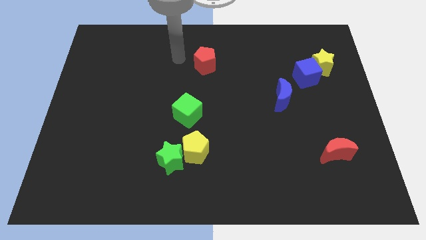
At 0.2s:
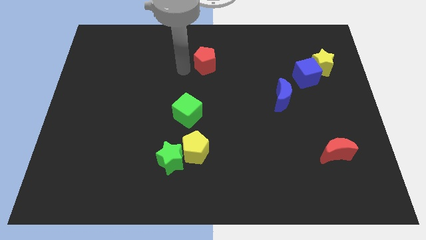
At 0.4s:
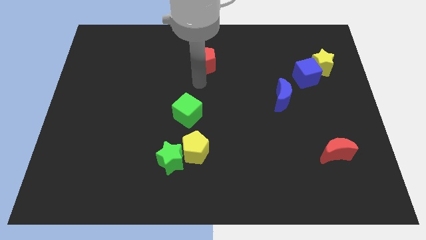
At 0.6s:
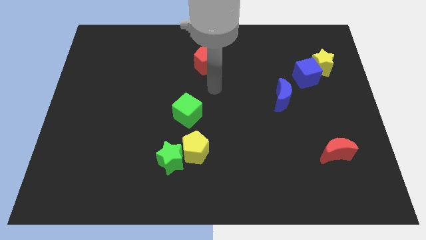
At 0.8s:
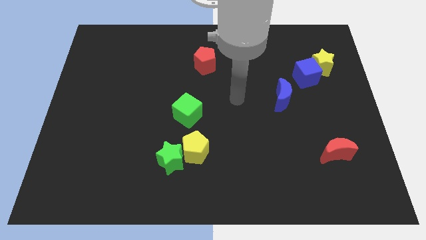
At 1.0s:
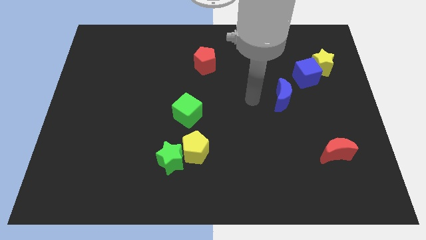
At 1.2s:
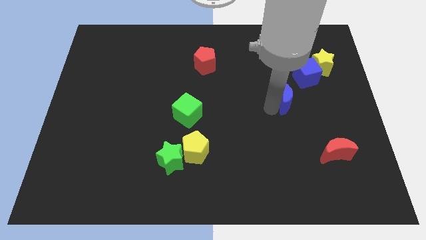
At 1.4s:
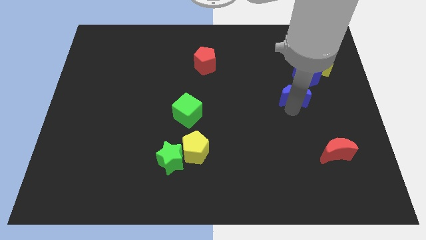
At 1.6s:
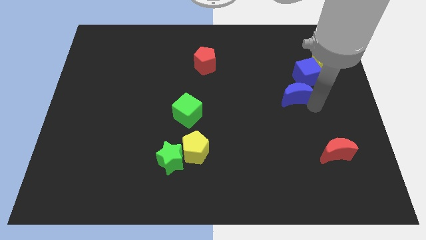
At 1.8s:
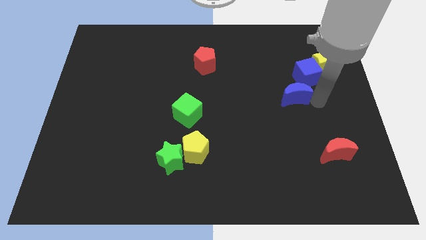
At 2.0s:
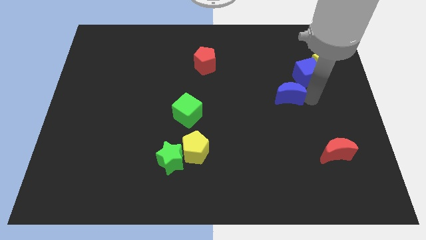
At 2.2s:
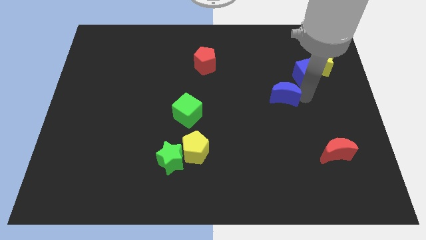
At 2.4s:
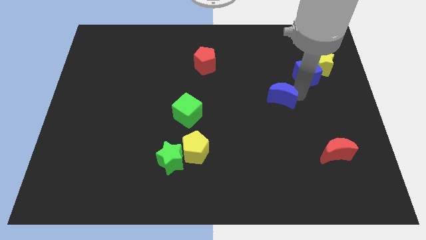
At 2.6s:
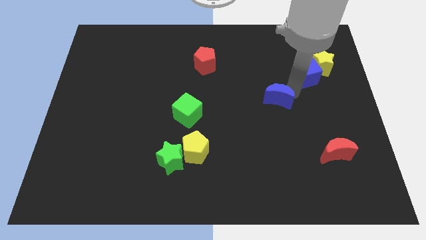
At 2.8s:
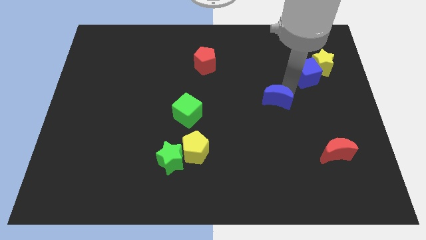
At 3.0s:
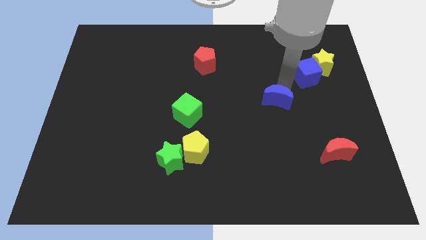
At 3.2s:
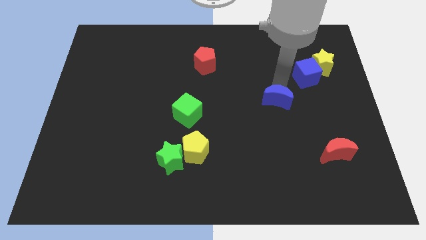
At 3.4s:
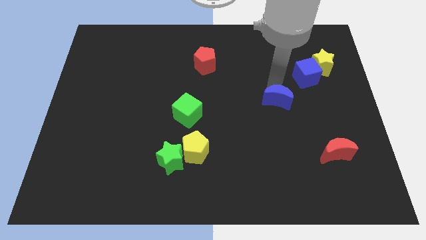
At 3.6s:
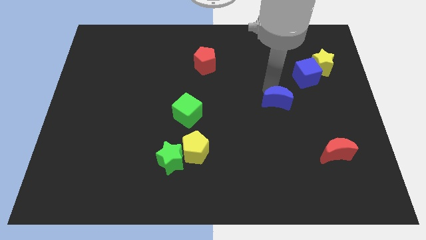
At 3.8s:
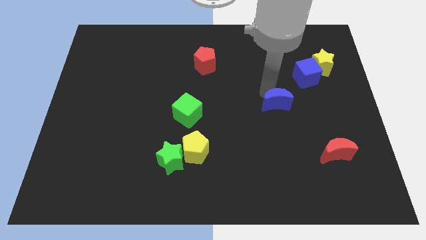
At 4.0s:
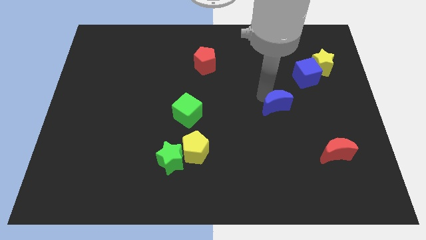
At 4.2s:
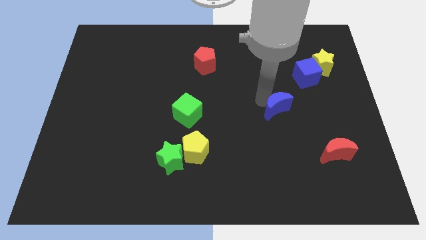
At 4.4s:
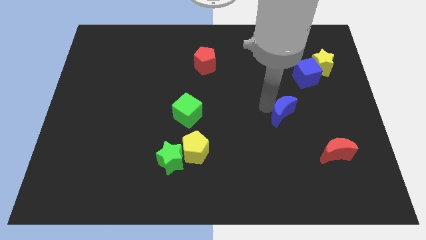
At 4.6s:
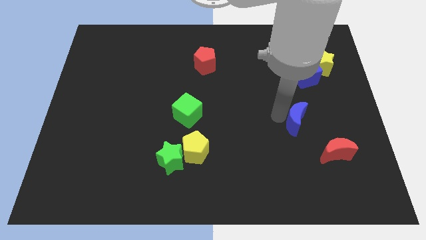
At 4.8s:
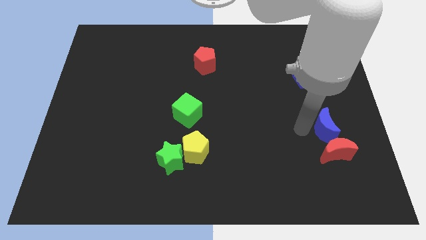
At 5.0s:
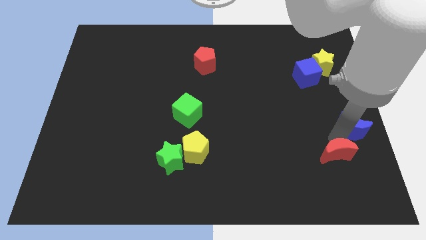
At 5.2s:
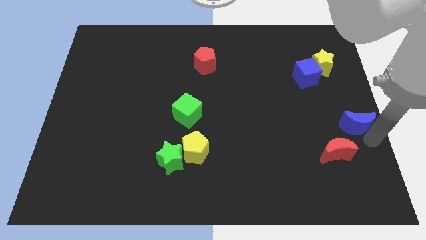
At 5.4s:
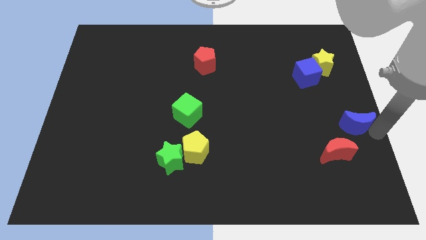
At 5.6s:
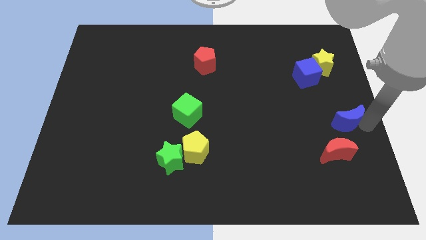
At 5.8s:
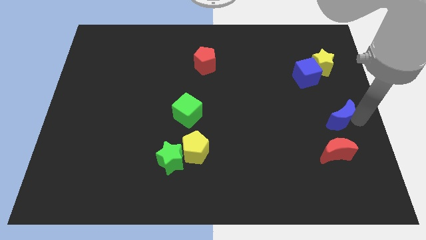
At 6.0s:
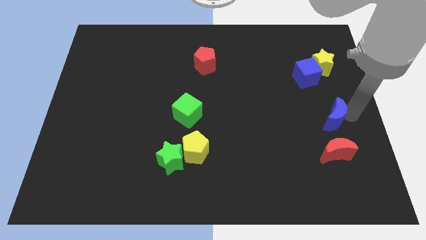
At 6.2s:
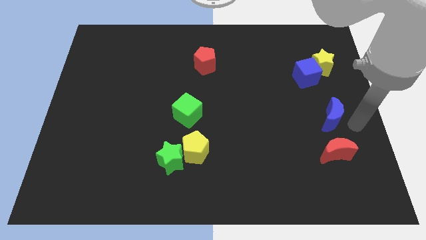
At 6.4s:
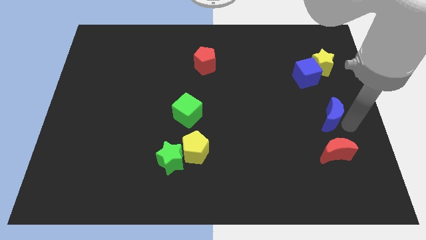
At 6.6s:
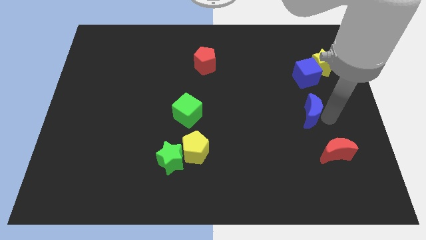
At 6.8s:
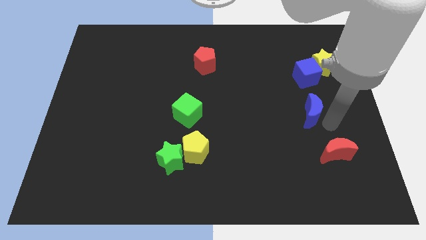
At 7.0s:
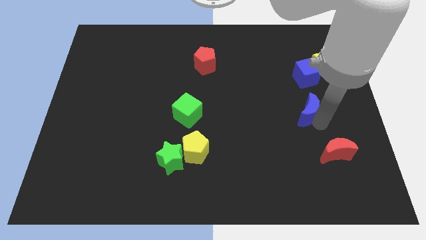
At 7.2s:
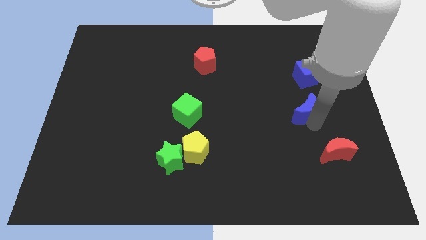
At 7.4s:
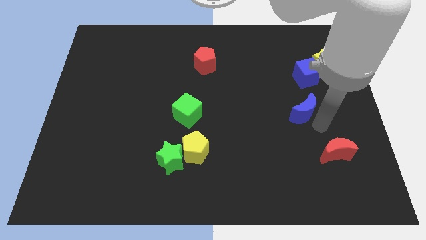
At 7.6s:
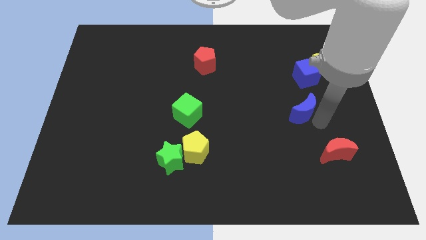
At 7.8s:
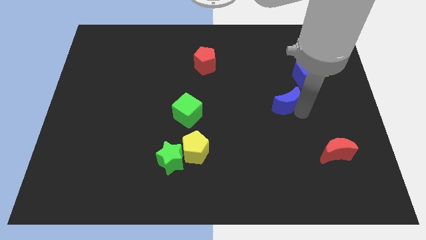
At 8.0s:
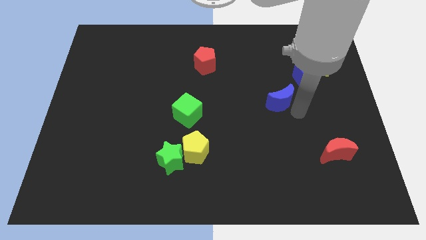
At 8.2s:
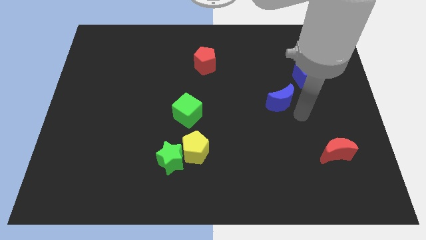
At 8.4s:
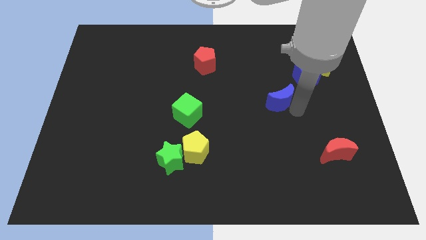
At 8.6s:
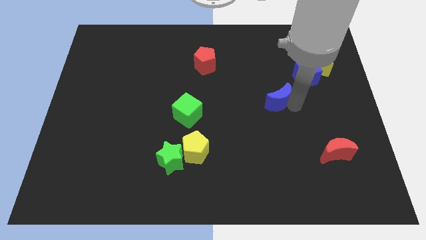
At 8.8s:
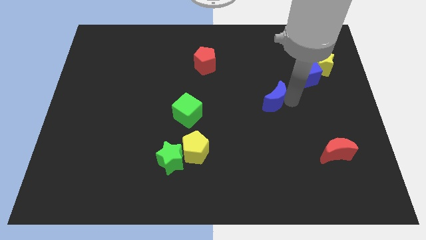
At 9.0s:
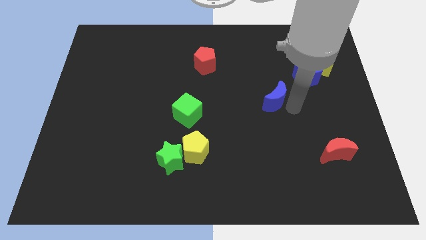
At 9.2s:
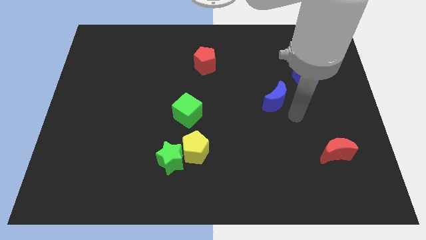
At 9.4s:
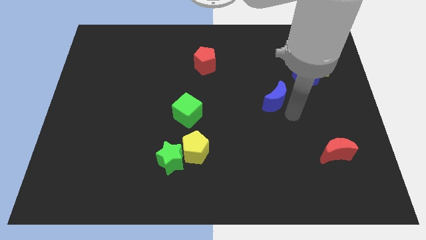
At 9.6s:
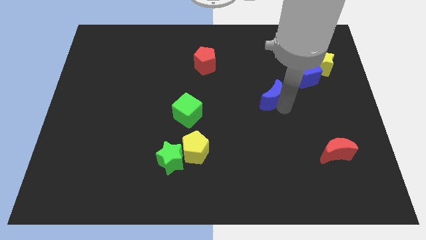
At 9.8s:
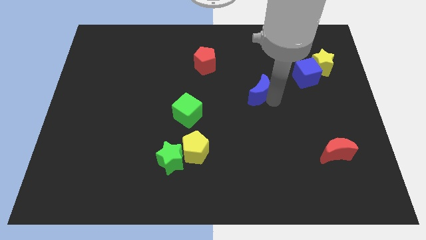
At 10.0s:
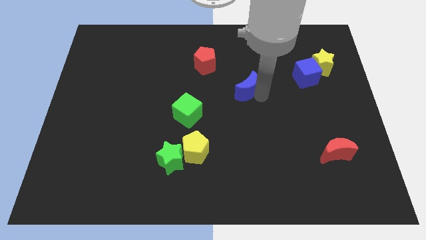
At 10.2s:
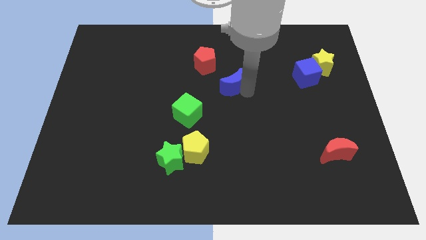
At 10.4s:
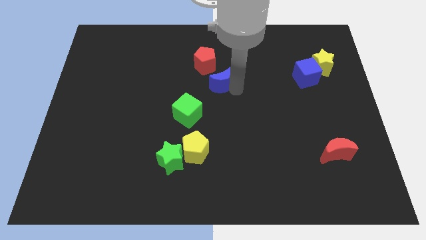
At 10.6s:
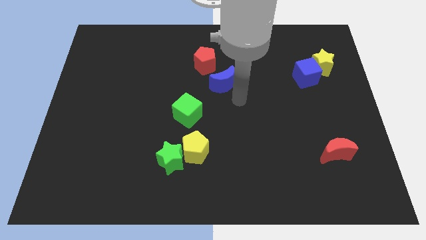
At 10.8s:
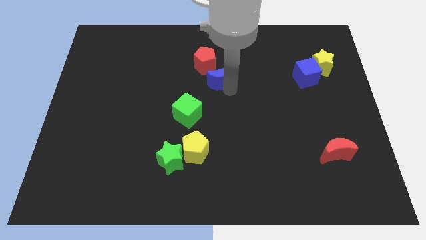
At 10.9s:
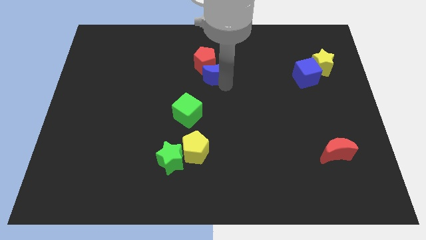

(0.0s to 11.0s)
push the blue moon to the red pentagon

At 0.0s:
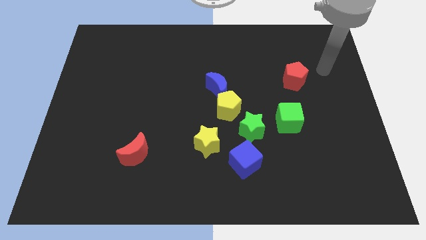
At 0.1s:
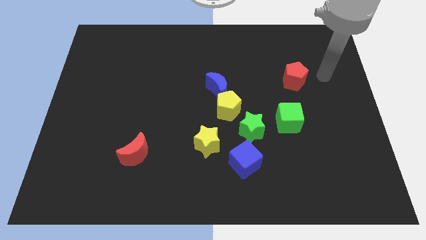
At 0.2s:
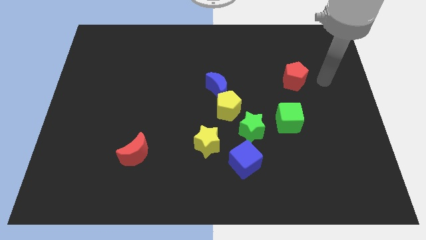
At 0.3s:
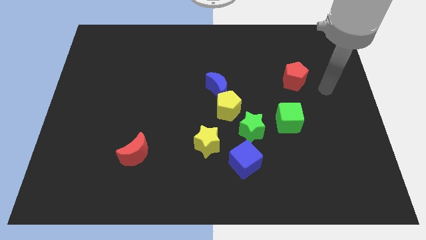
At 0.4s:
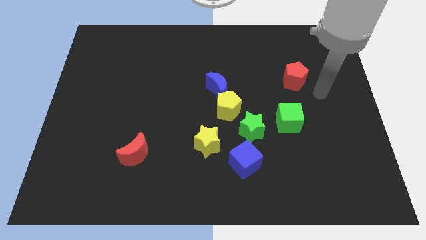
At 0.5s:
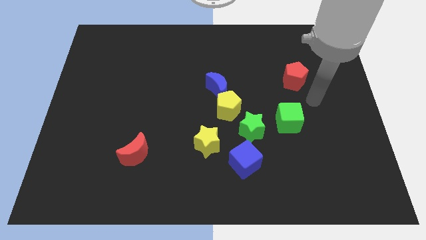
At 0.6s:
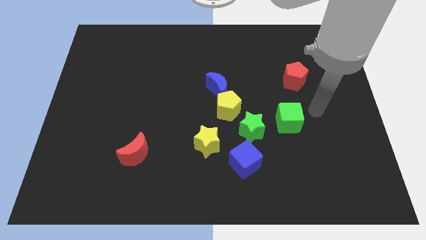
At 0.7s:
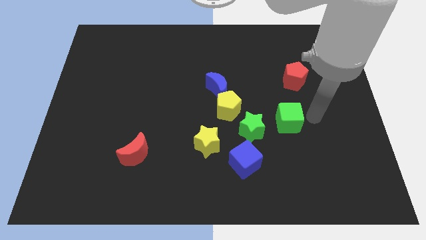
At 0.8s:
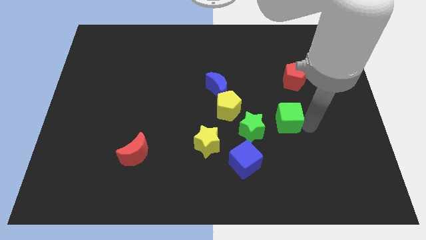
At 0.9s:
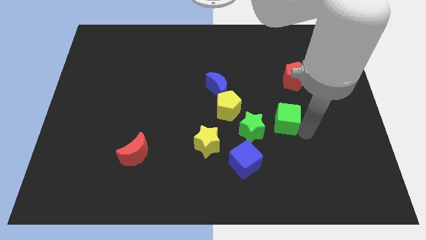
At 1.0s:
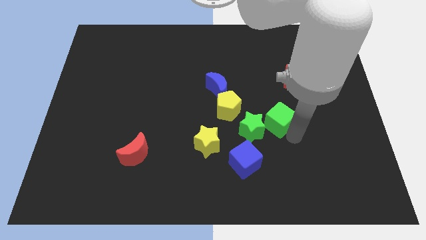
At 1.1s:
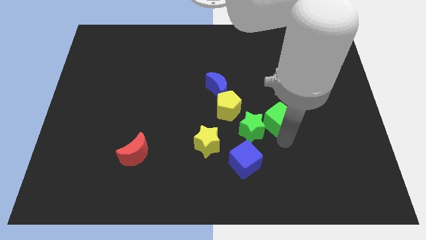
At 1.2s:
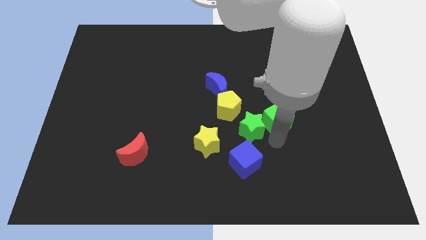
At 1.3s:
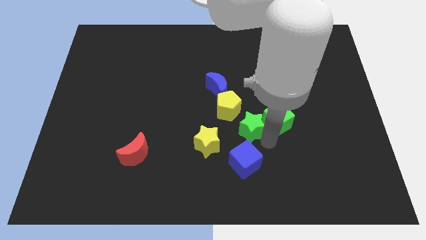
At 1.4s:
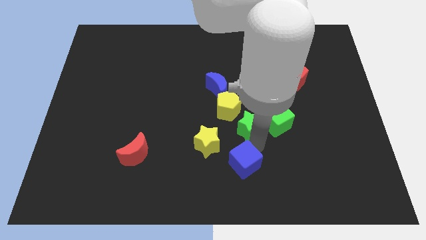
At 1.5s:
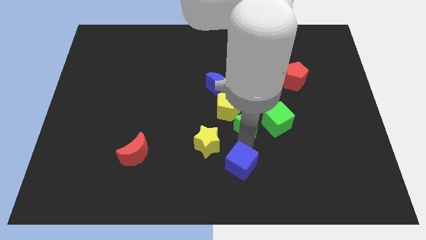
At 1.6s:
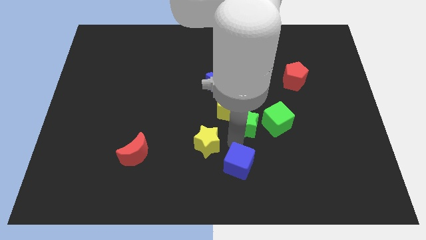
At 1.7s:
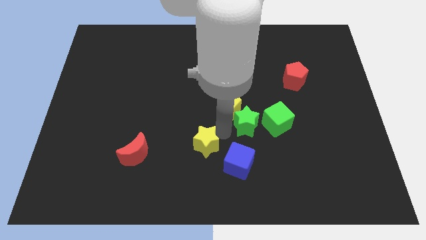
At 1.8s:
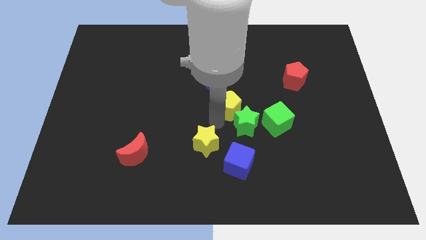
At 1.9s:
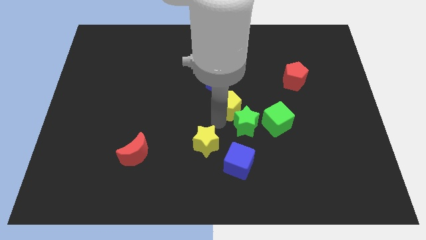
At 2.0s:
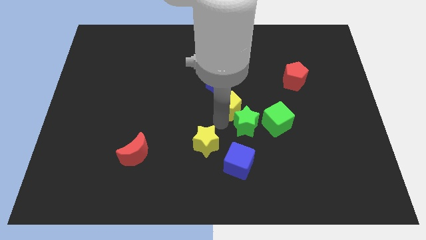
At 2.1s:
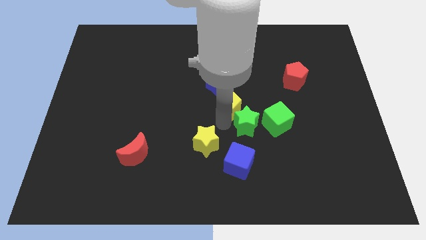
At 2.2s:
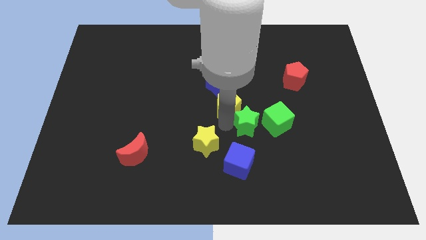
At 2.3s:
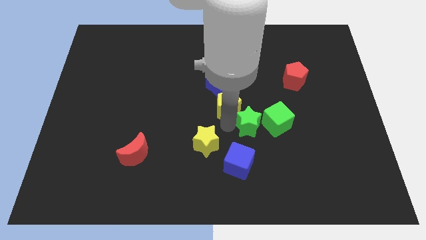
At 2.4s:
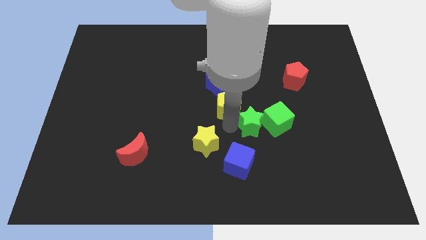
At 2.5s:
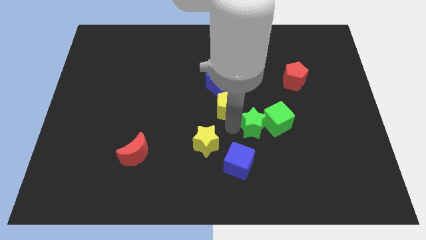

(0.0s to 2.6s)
slide the green star towards the green cube
